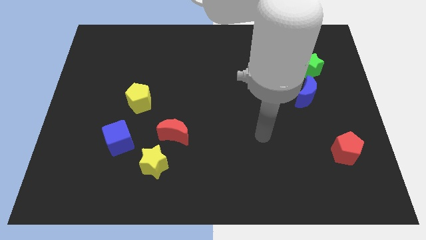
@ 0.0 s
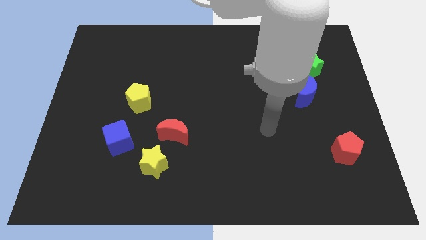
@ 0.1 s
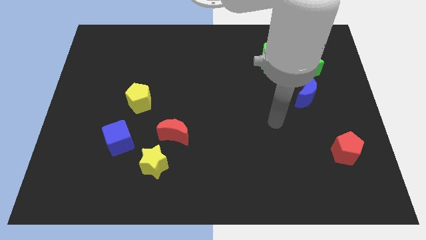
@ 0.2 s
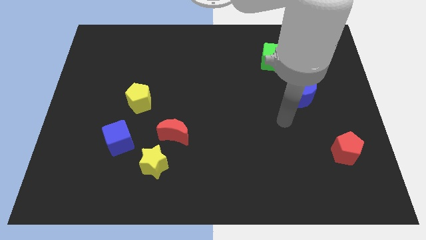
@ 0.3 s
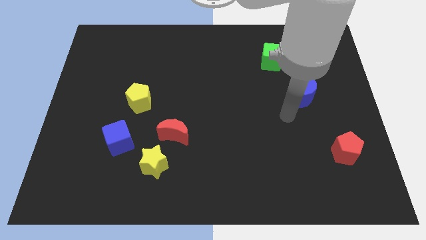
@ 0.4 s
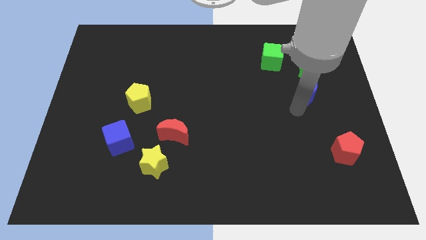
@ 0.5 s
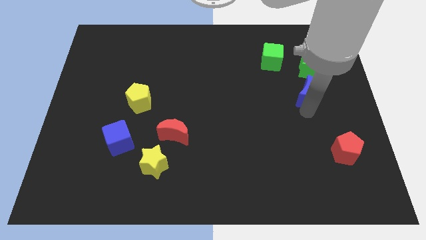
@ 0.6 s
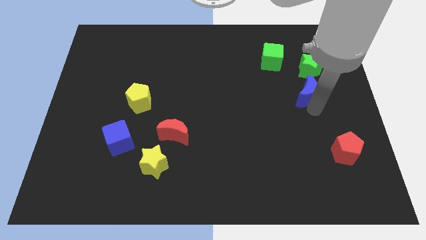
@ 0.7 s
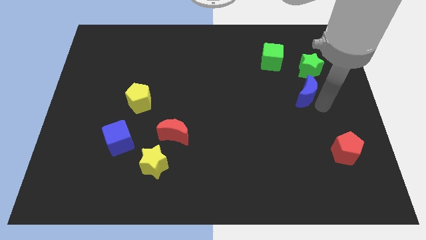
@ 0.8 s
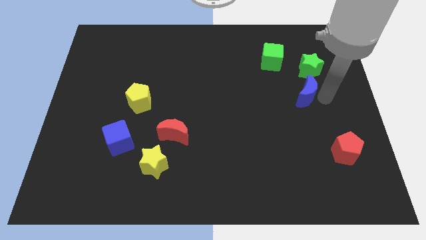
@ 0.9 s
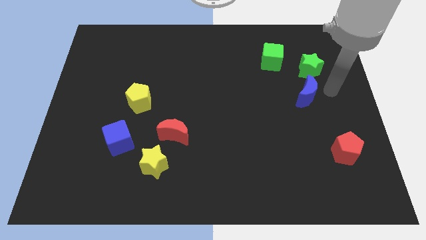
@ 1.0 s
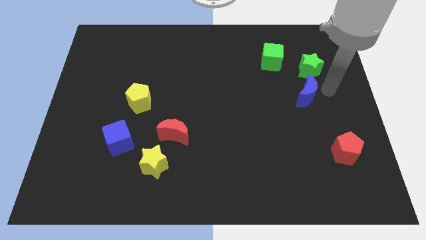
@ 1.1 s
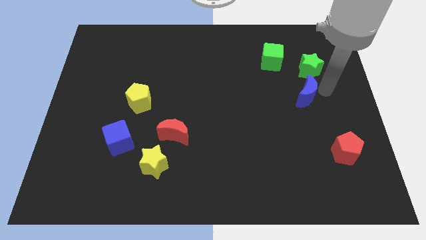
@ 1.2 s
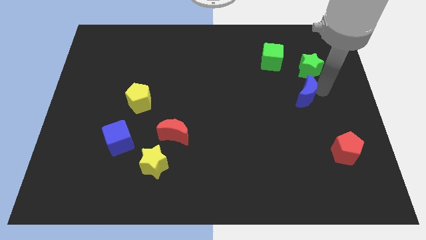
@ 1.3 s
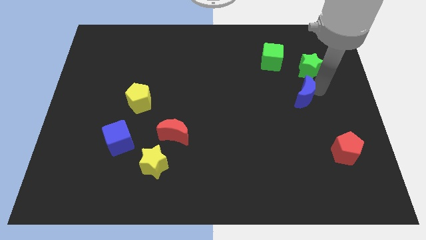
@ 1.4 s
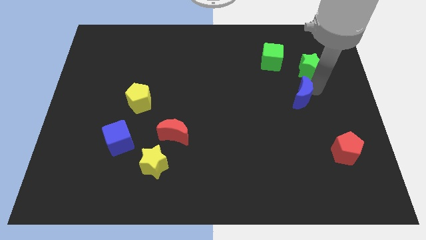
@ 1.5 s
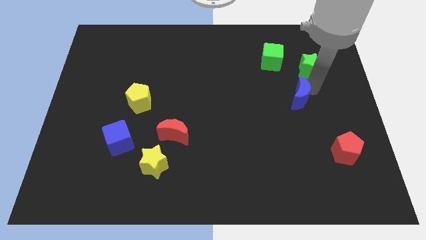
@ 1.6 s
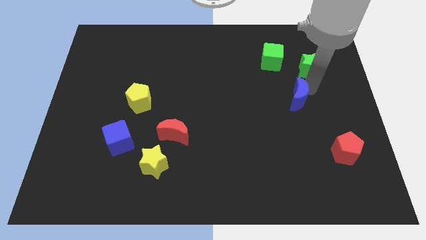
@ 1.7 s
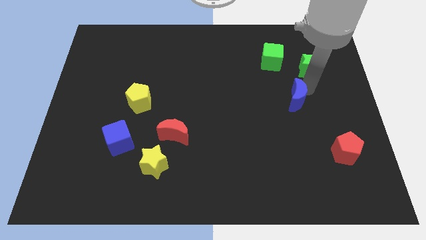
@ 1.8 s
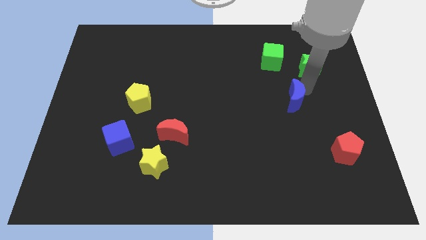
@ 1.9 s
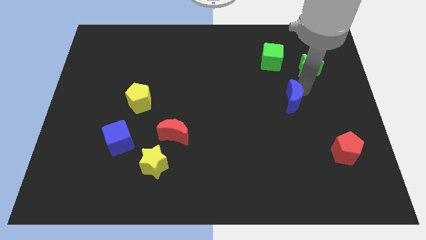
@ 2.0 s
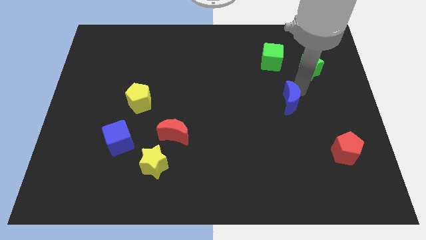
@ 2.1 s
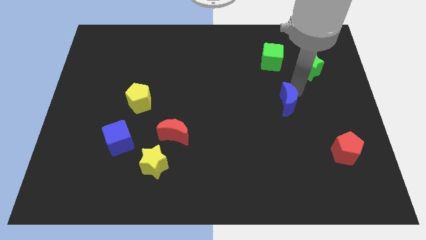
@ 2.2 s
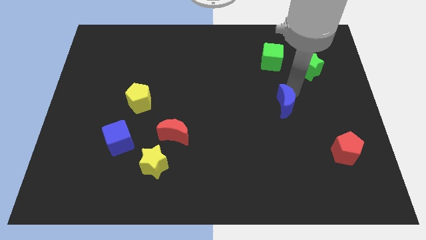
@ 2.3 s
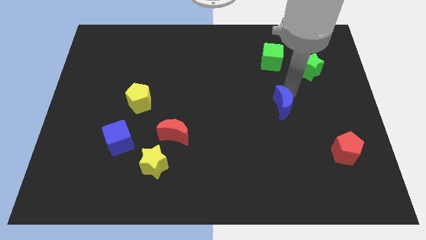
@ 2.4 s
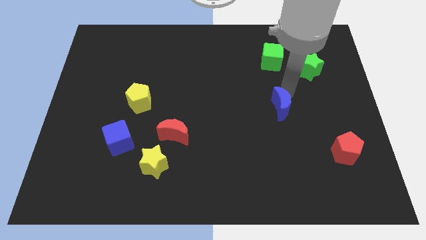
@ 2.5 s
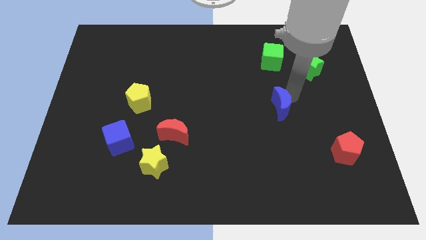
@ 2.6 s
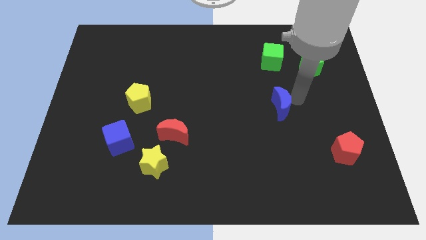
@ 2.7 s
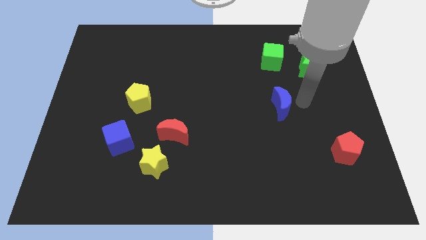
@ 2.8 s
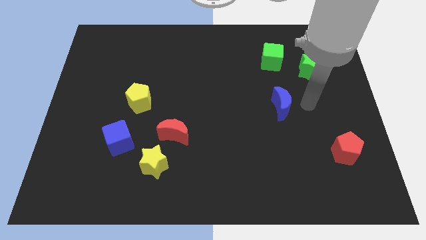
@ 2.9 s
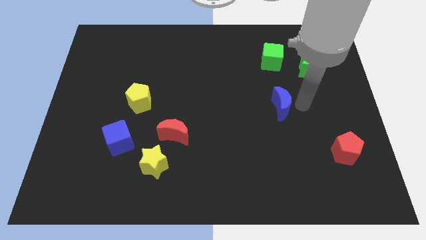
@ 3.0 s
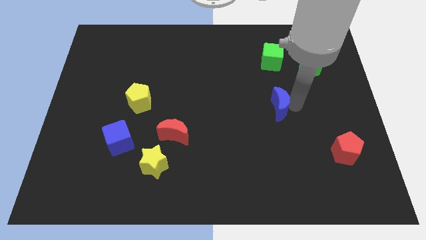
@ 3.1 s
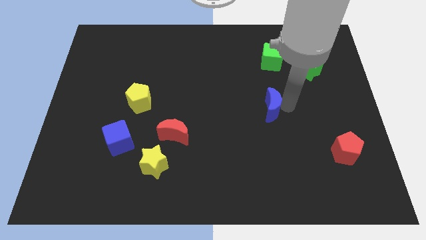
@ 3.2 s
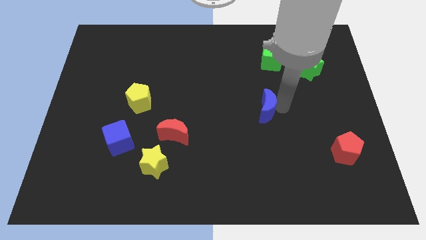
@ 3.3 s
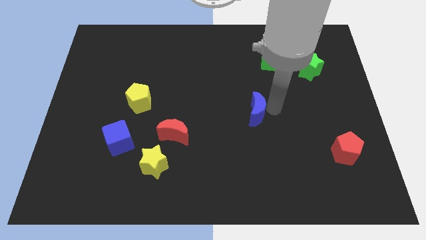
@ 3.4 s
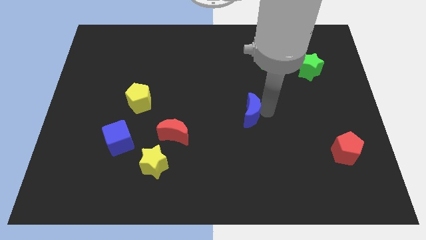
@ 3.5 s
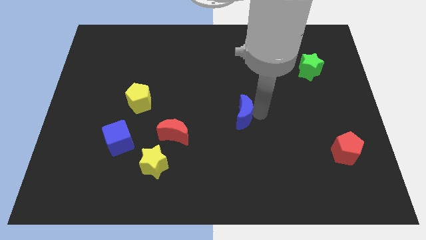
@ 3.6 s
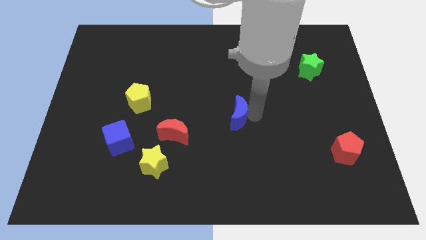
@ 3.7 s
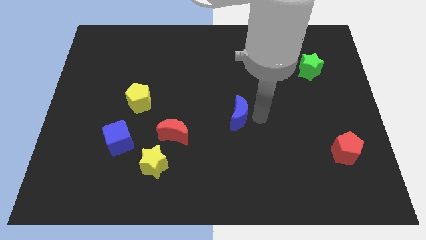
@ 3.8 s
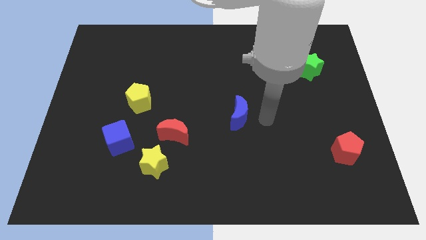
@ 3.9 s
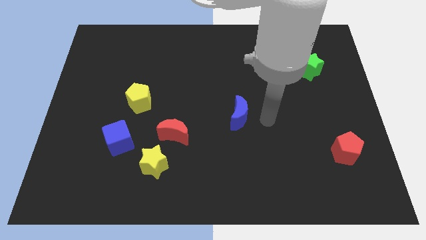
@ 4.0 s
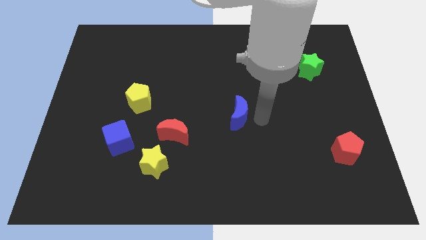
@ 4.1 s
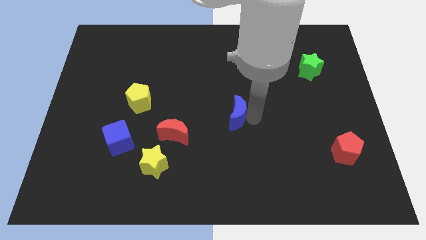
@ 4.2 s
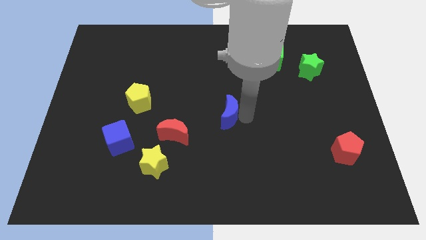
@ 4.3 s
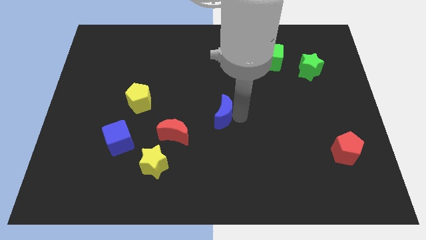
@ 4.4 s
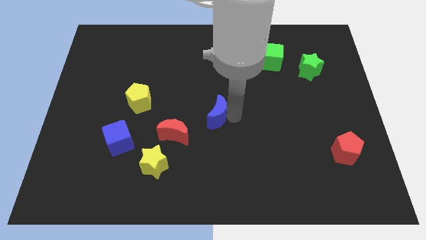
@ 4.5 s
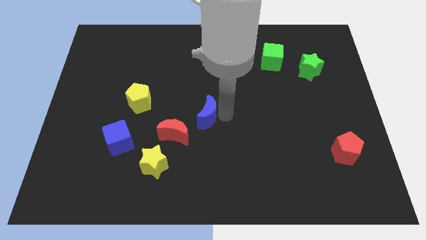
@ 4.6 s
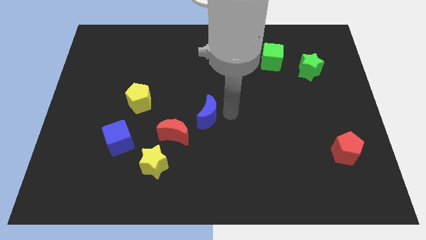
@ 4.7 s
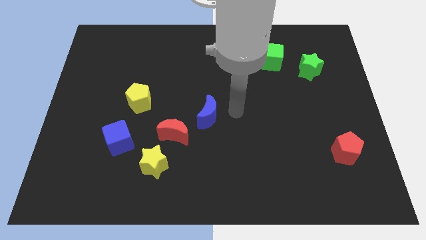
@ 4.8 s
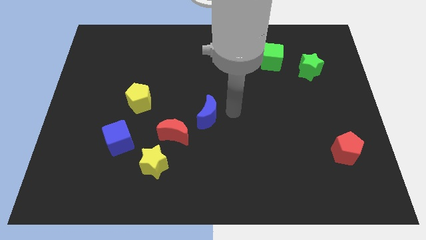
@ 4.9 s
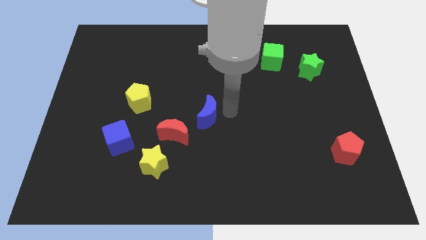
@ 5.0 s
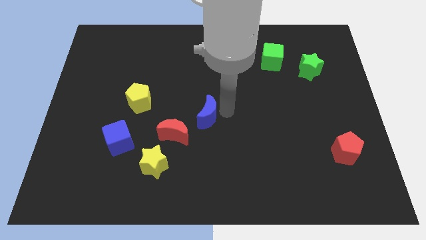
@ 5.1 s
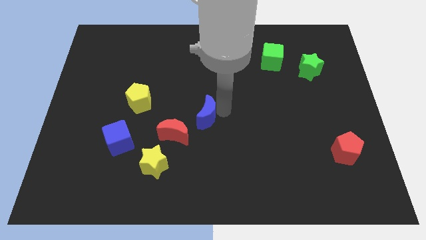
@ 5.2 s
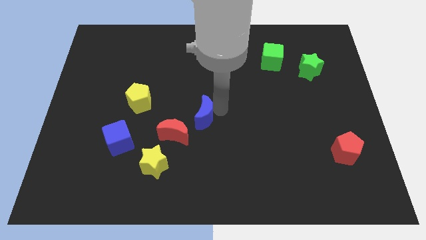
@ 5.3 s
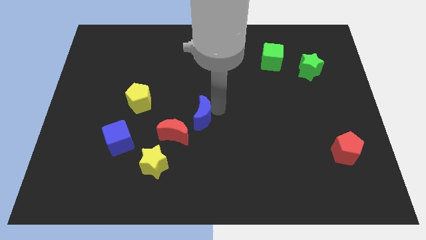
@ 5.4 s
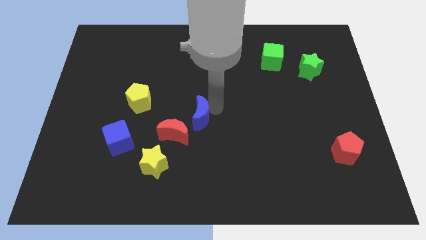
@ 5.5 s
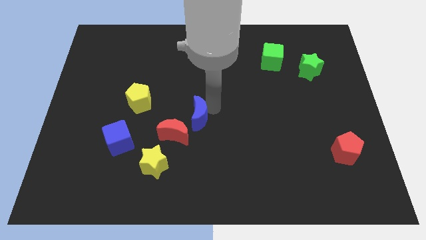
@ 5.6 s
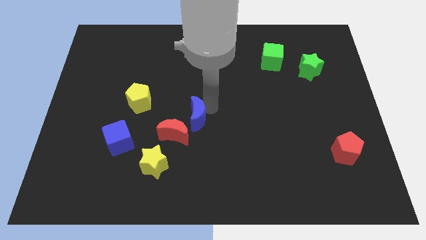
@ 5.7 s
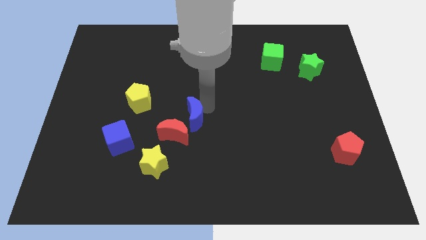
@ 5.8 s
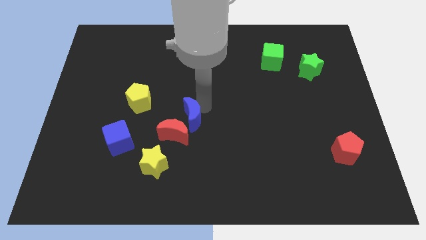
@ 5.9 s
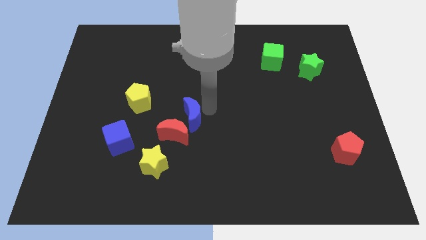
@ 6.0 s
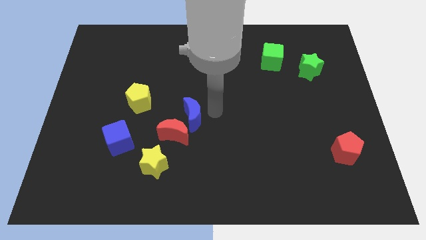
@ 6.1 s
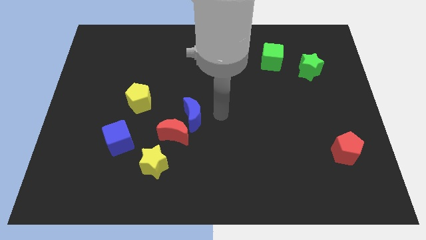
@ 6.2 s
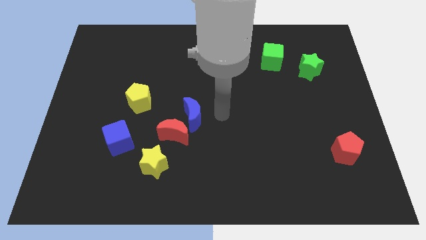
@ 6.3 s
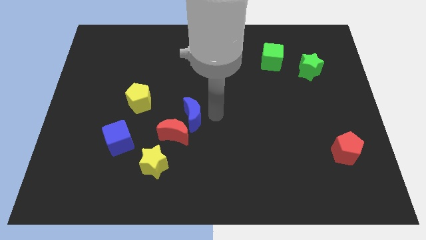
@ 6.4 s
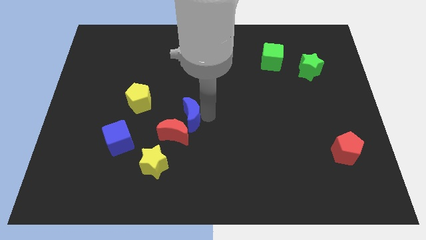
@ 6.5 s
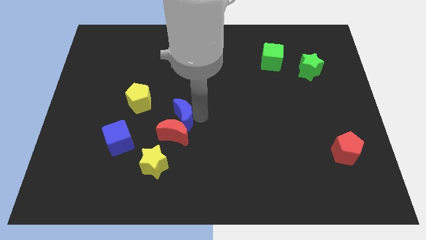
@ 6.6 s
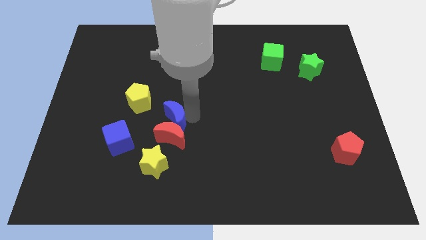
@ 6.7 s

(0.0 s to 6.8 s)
put the blue moon to the bottom right of the yellow pentagon

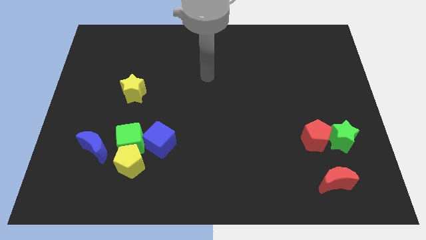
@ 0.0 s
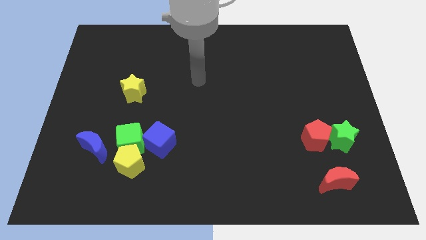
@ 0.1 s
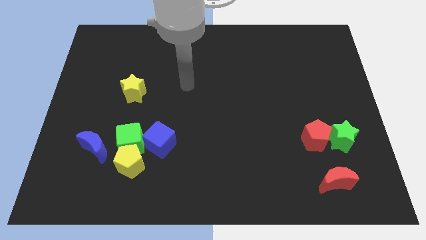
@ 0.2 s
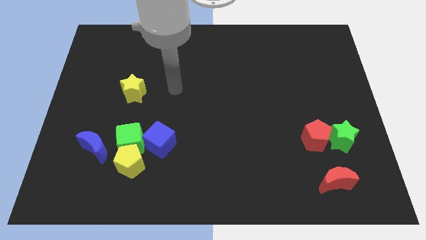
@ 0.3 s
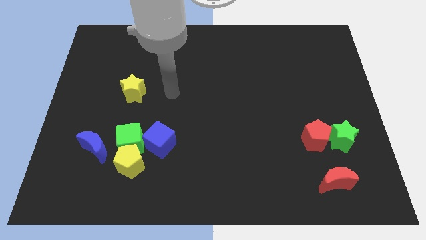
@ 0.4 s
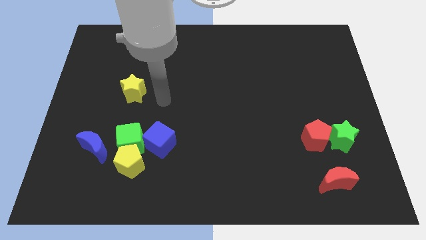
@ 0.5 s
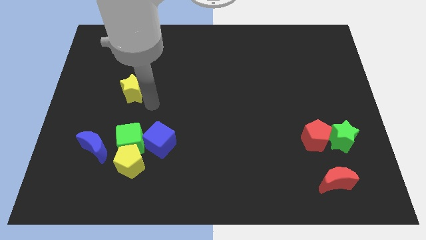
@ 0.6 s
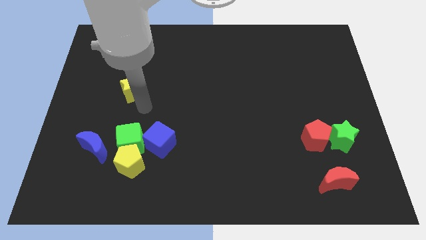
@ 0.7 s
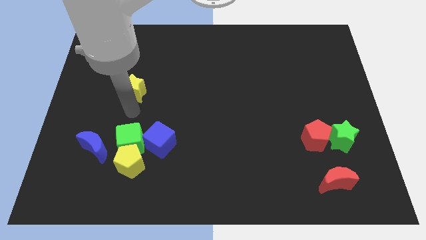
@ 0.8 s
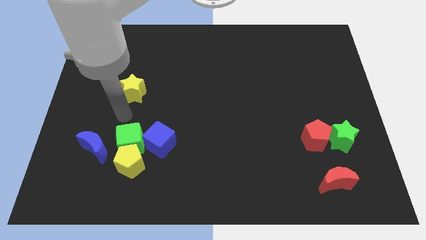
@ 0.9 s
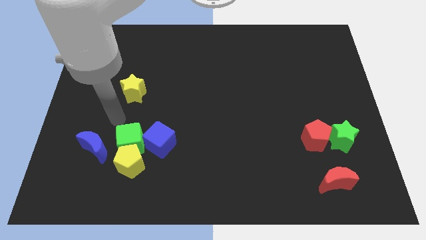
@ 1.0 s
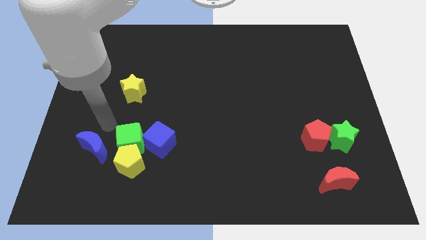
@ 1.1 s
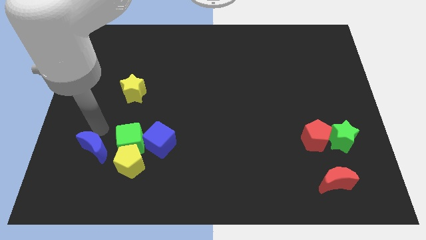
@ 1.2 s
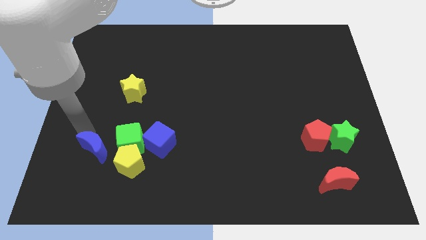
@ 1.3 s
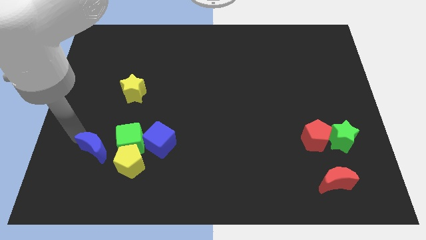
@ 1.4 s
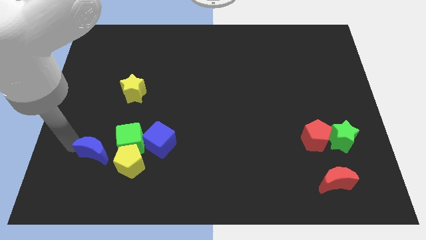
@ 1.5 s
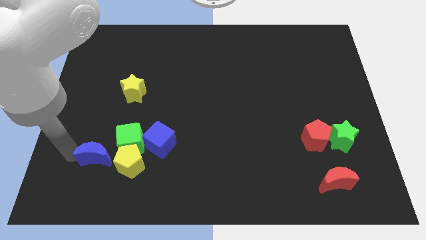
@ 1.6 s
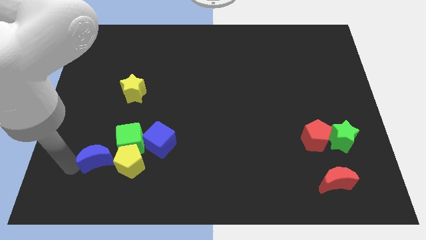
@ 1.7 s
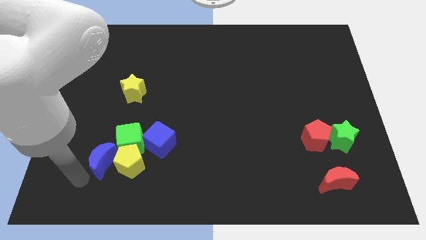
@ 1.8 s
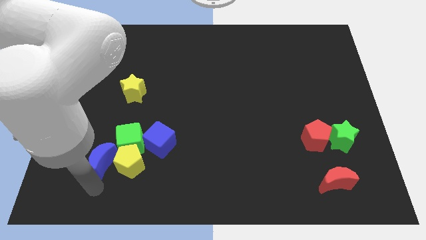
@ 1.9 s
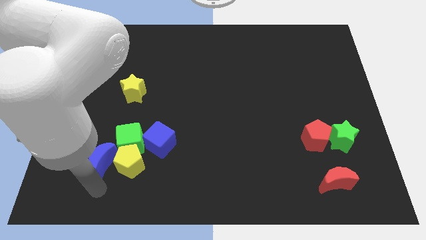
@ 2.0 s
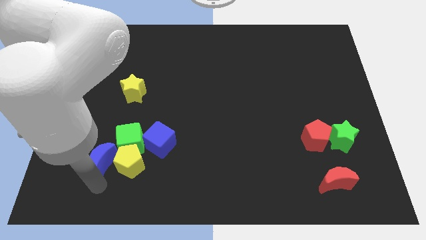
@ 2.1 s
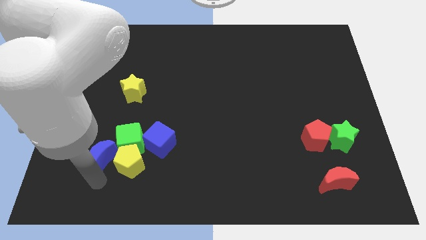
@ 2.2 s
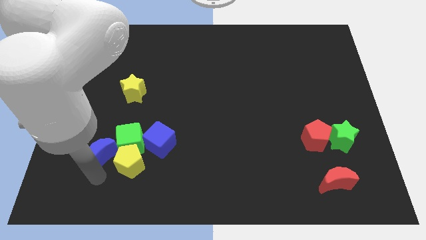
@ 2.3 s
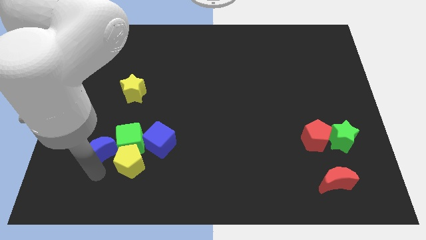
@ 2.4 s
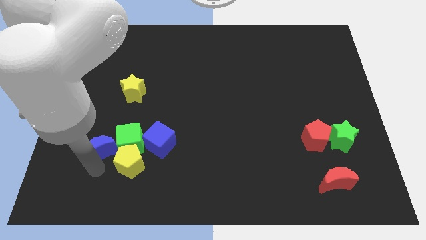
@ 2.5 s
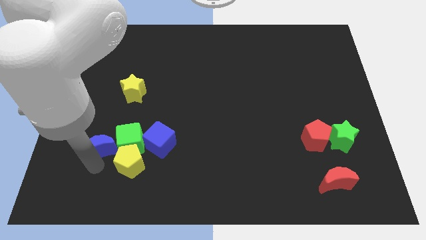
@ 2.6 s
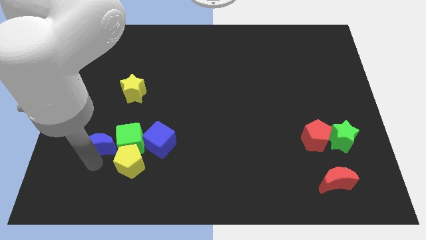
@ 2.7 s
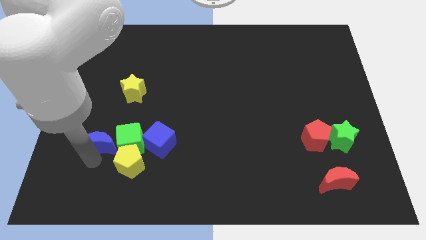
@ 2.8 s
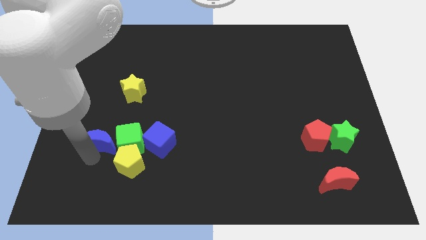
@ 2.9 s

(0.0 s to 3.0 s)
slide the blue moon to the top left of the green cube
